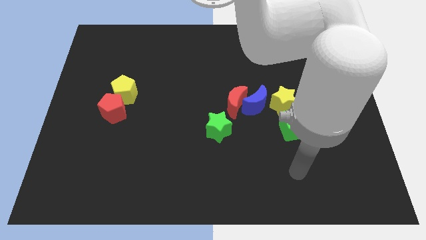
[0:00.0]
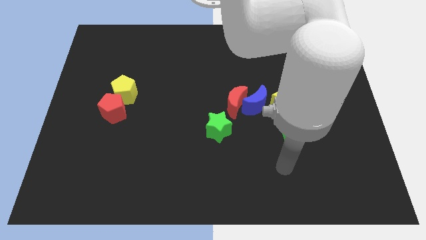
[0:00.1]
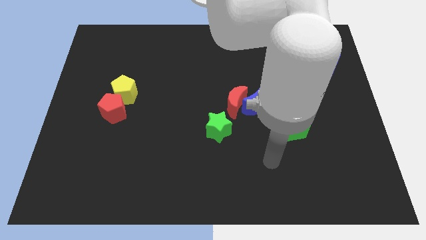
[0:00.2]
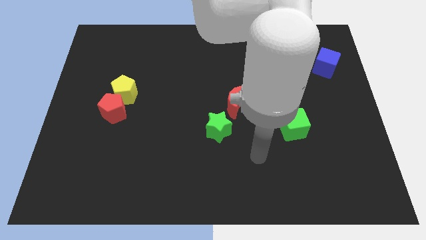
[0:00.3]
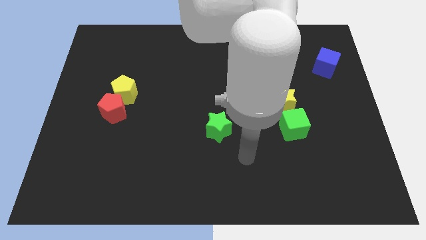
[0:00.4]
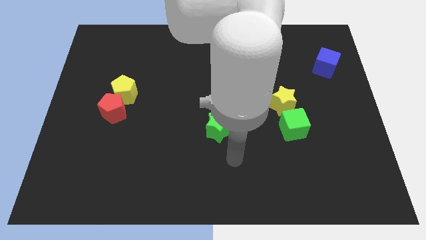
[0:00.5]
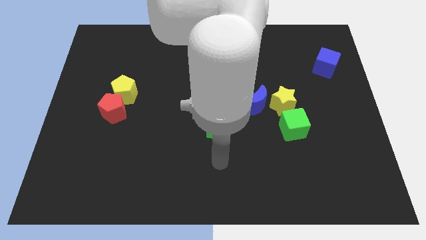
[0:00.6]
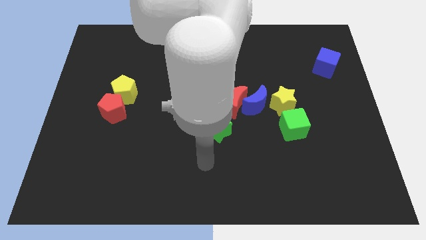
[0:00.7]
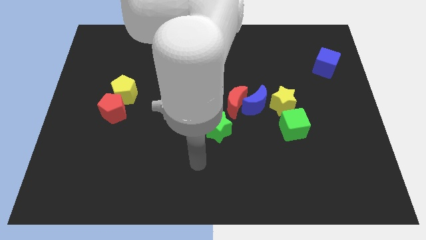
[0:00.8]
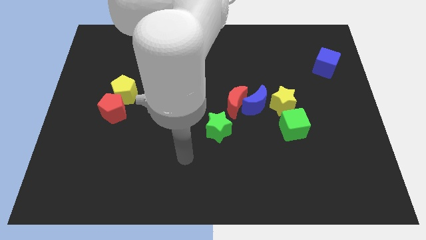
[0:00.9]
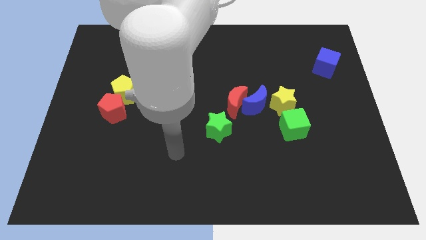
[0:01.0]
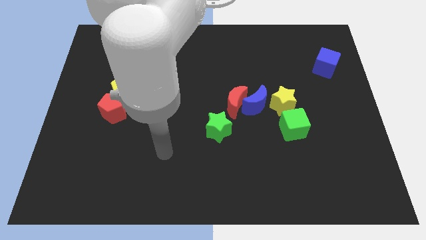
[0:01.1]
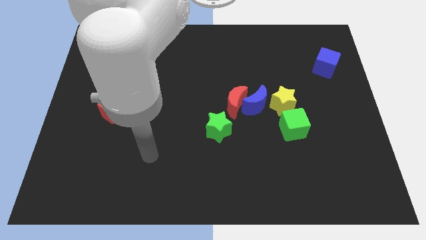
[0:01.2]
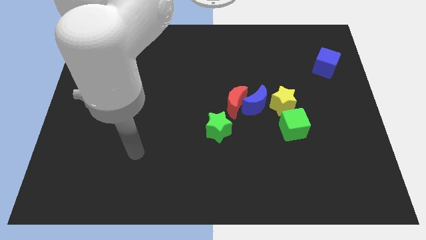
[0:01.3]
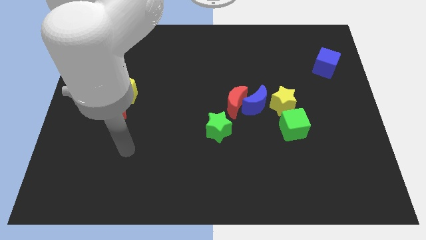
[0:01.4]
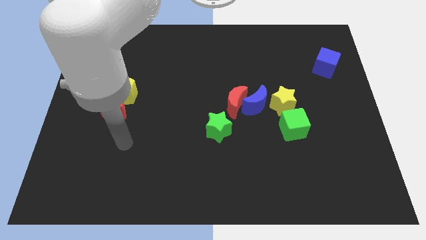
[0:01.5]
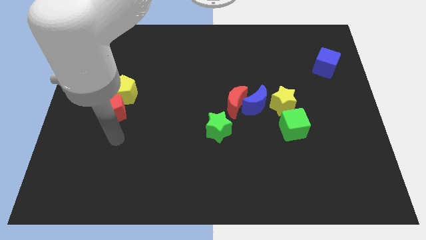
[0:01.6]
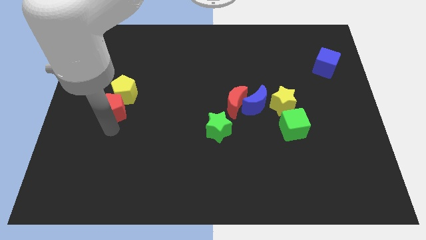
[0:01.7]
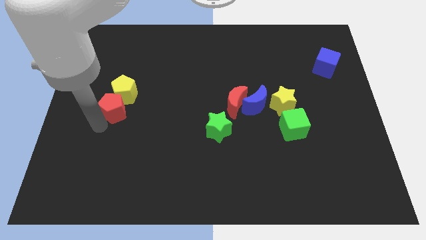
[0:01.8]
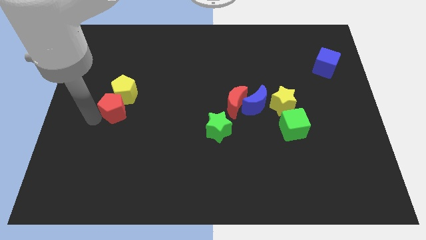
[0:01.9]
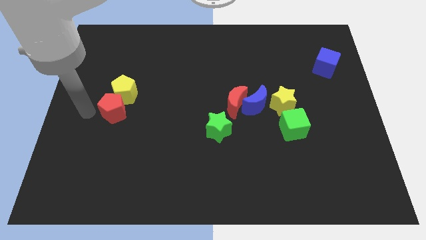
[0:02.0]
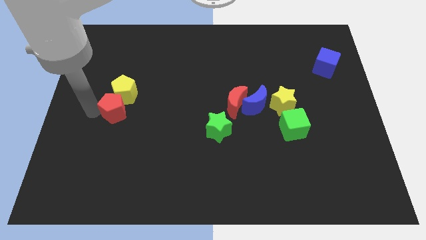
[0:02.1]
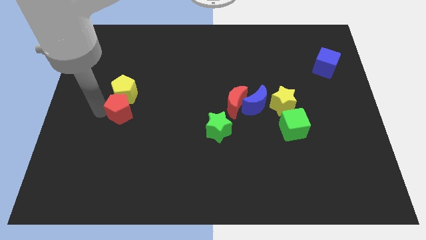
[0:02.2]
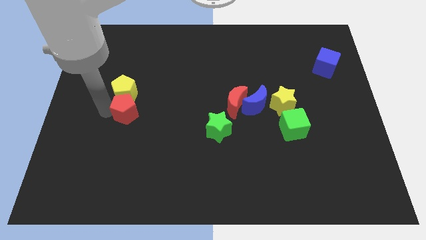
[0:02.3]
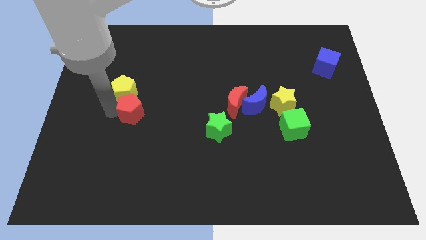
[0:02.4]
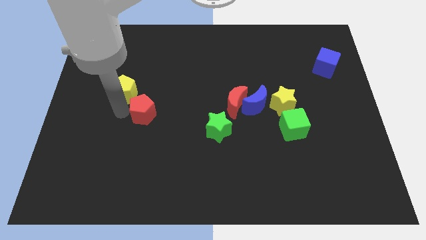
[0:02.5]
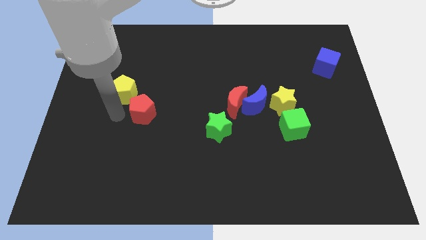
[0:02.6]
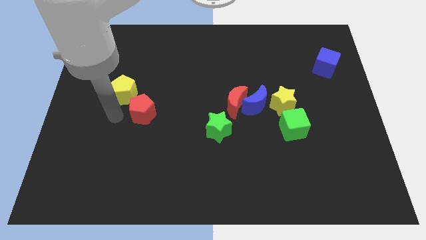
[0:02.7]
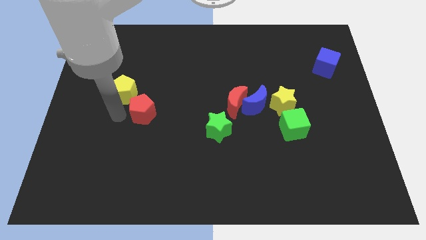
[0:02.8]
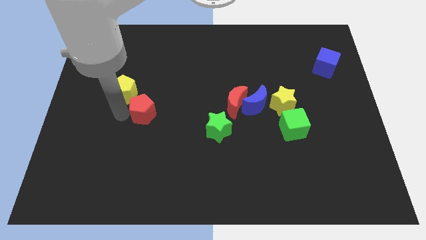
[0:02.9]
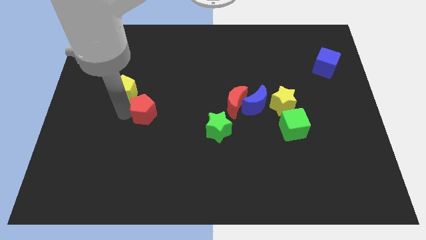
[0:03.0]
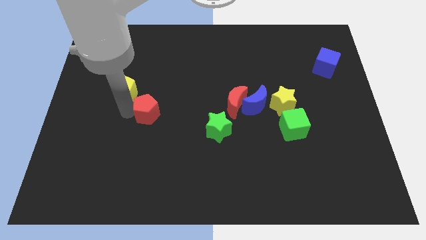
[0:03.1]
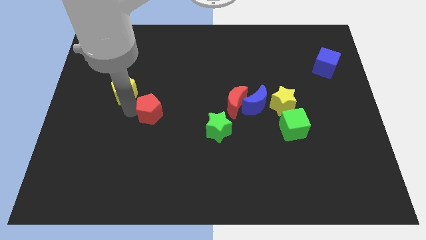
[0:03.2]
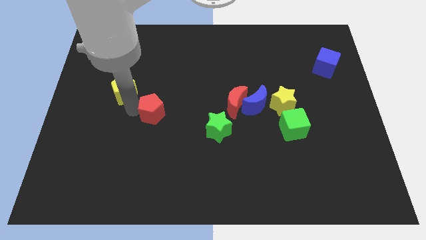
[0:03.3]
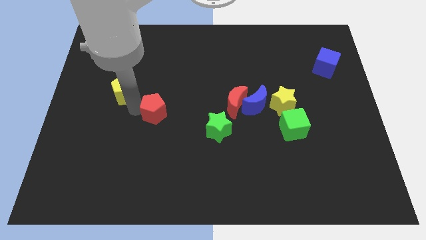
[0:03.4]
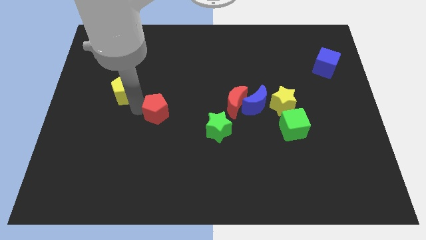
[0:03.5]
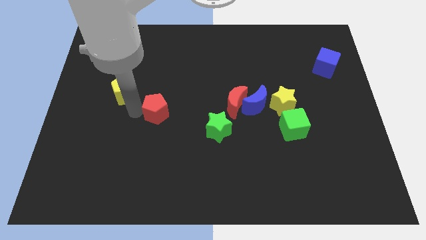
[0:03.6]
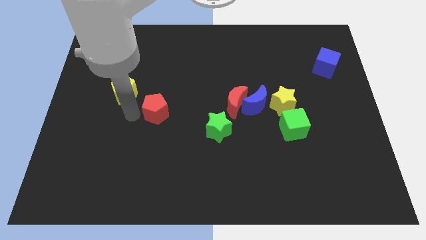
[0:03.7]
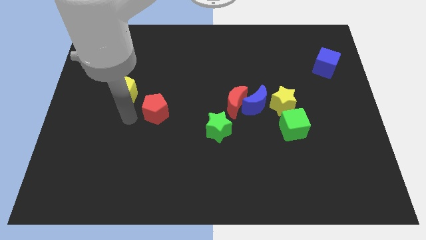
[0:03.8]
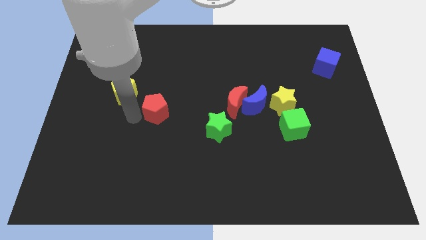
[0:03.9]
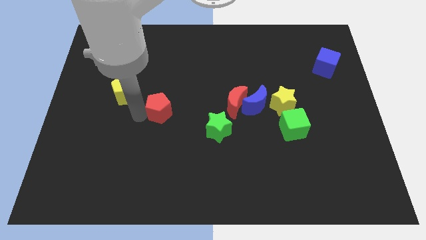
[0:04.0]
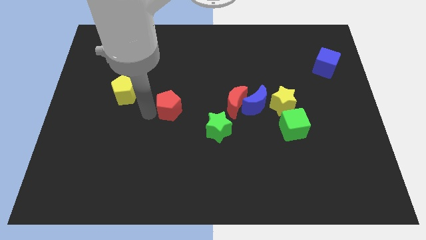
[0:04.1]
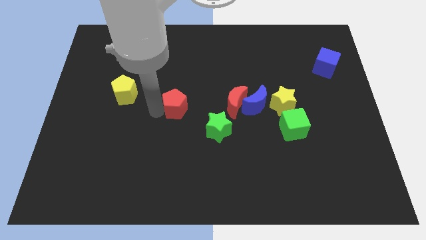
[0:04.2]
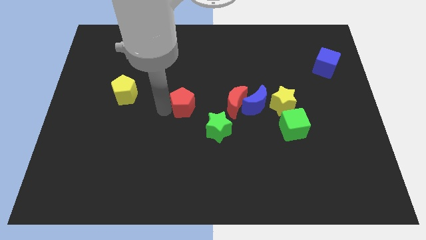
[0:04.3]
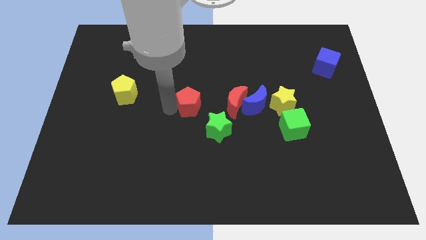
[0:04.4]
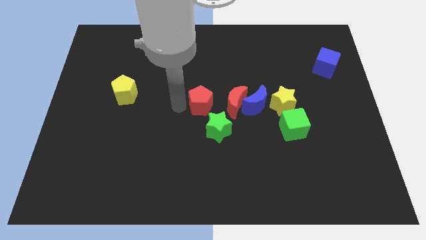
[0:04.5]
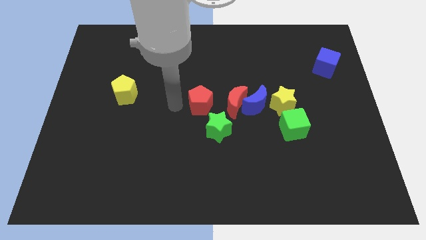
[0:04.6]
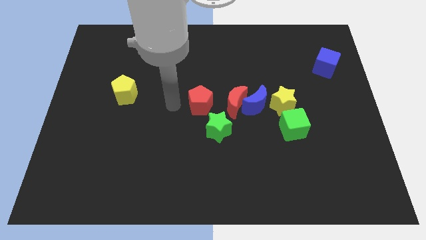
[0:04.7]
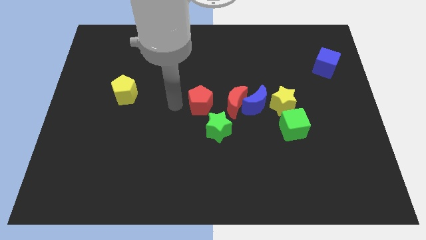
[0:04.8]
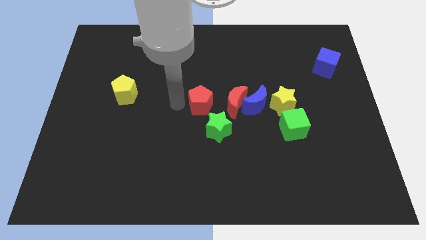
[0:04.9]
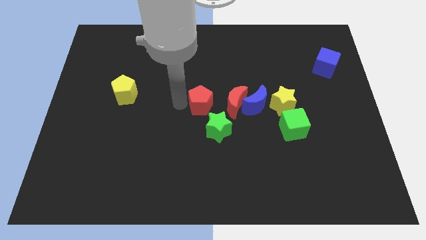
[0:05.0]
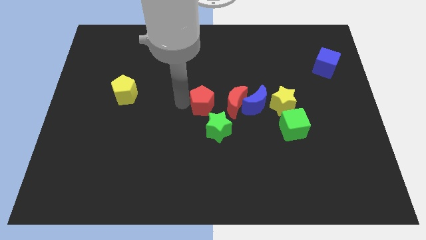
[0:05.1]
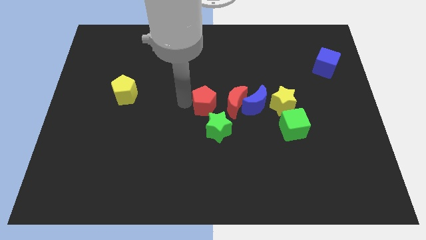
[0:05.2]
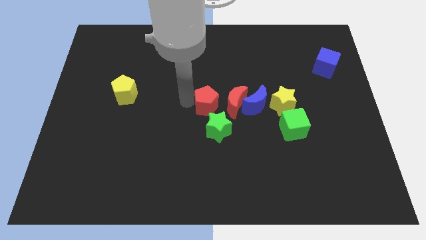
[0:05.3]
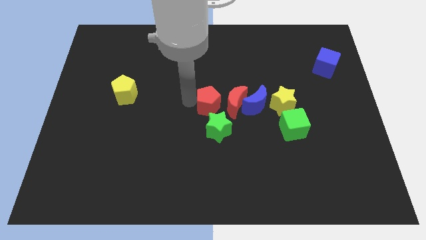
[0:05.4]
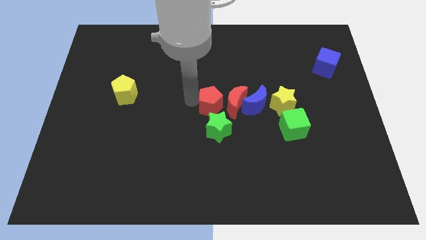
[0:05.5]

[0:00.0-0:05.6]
move the red pentagon to the red moon

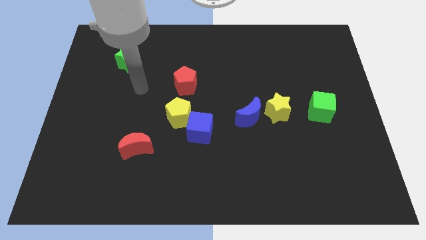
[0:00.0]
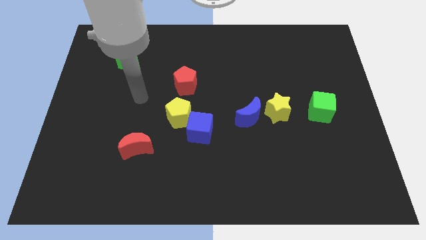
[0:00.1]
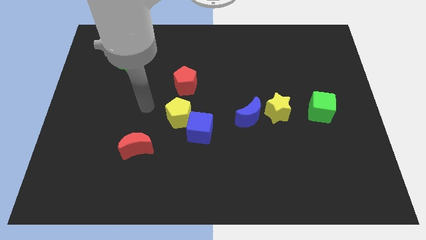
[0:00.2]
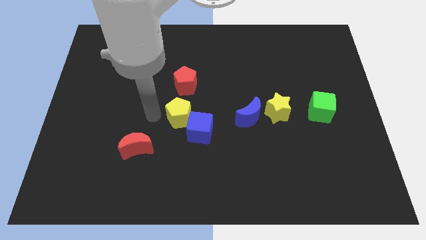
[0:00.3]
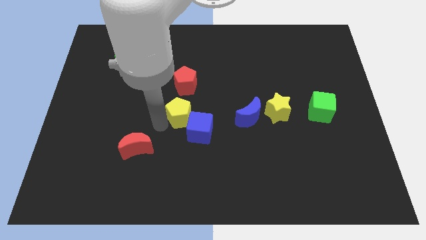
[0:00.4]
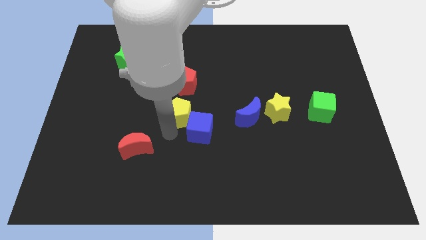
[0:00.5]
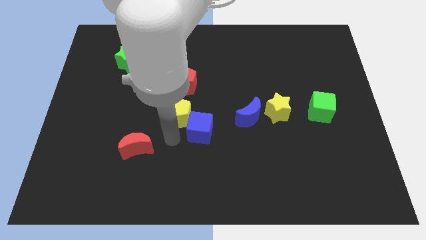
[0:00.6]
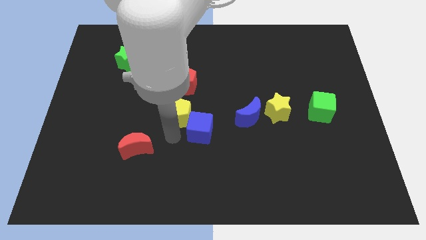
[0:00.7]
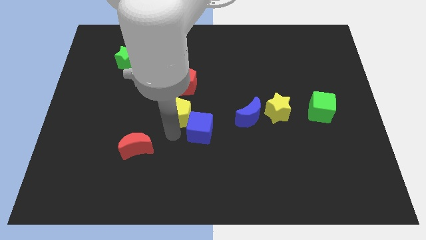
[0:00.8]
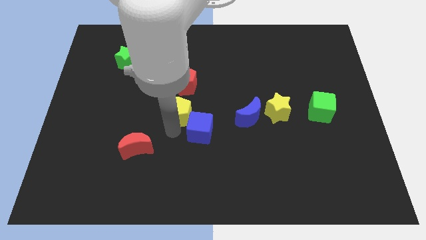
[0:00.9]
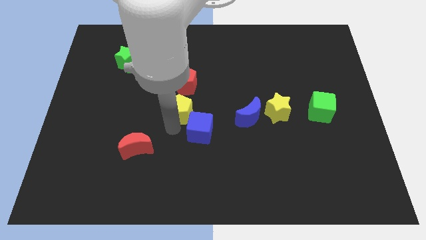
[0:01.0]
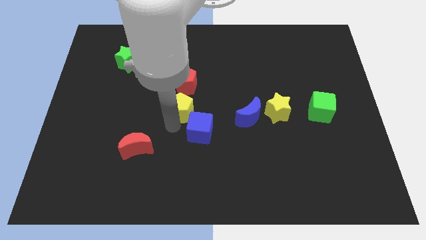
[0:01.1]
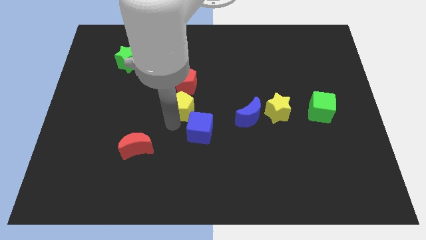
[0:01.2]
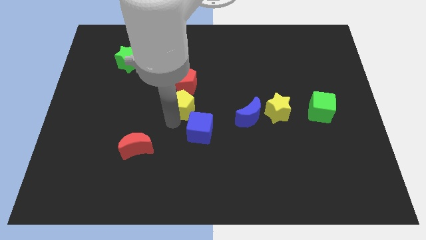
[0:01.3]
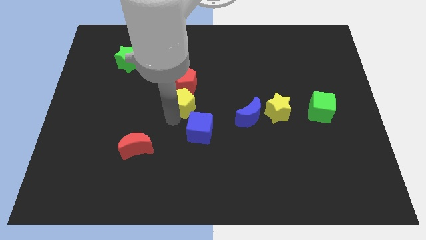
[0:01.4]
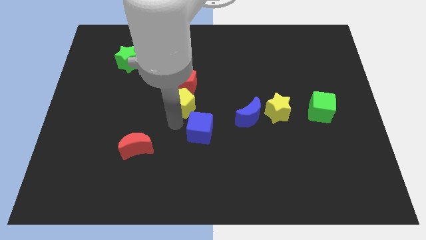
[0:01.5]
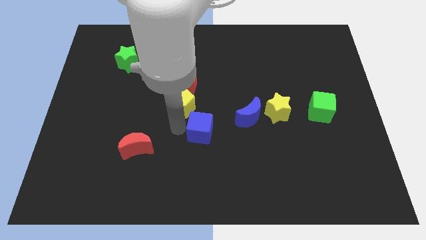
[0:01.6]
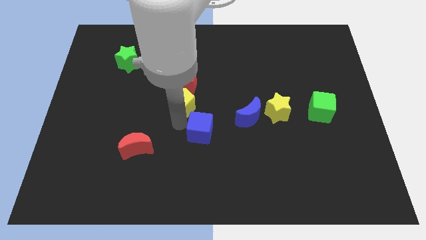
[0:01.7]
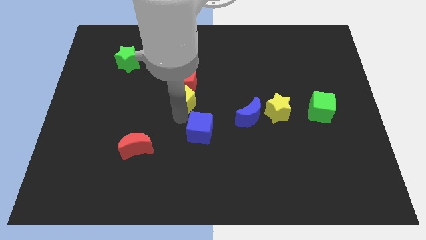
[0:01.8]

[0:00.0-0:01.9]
slide the yellow pentagon next to the red pentagon
